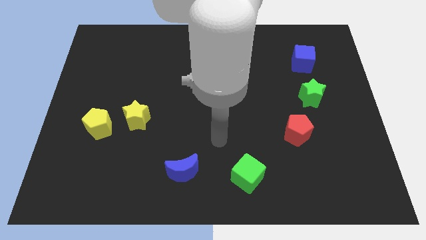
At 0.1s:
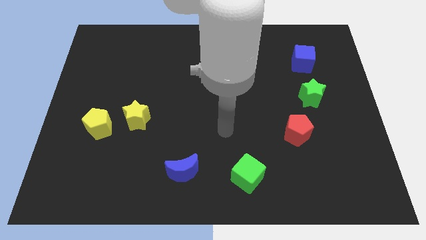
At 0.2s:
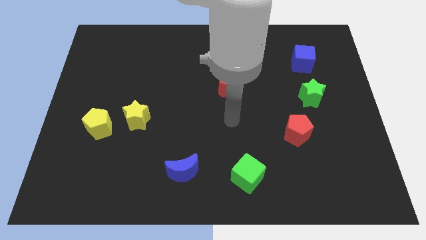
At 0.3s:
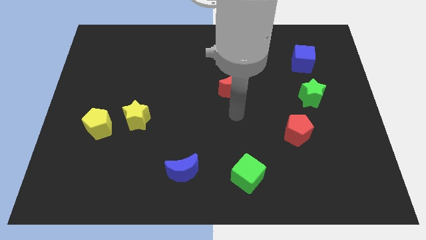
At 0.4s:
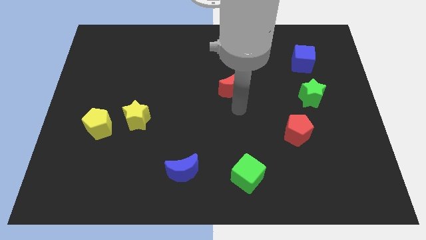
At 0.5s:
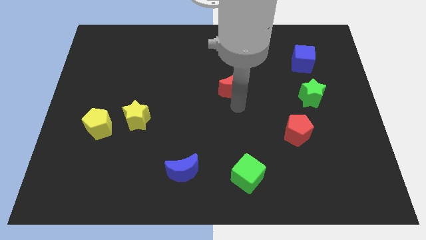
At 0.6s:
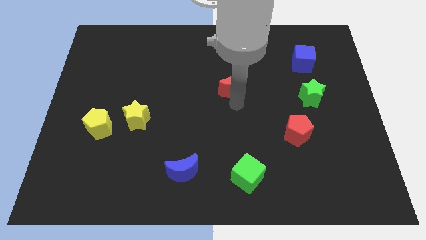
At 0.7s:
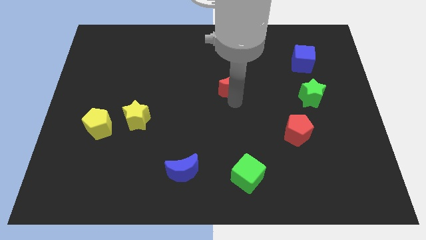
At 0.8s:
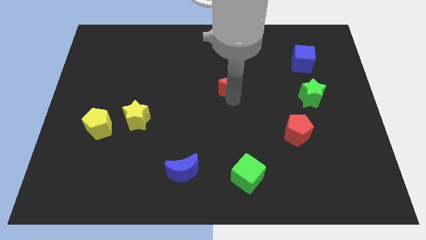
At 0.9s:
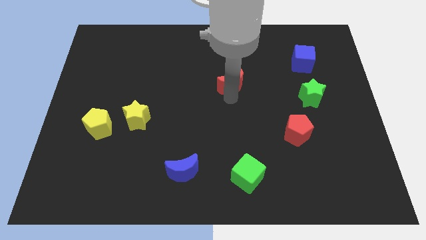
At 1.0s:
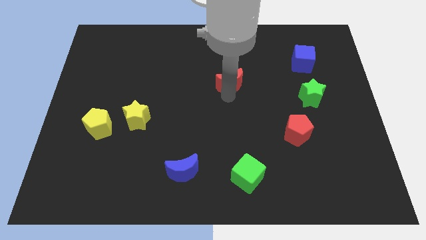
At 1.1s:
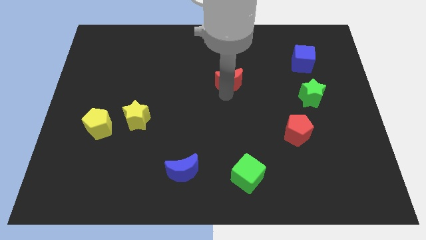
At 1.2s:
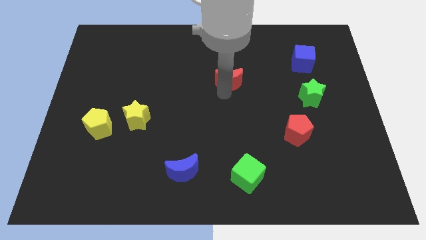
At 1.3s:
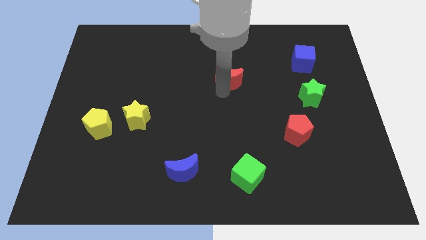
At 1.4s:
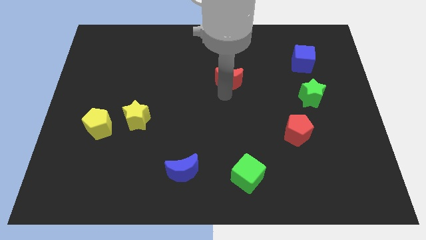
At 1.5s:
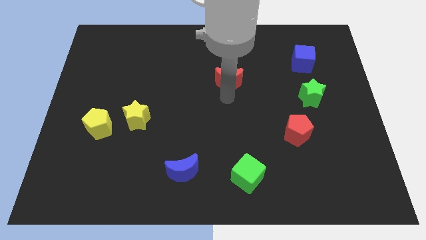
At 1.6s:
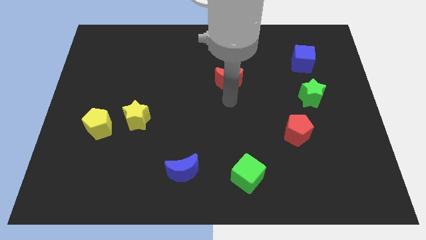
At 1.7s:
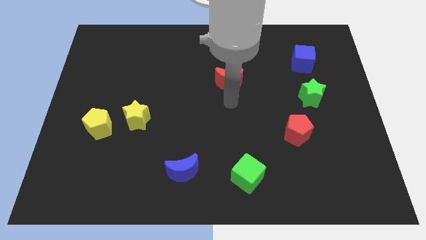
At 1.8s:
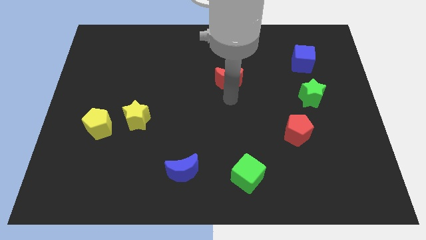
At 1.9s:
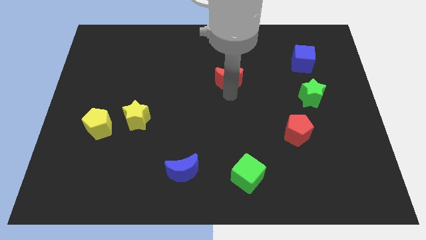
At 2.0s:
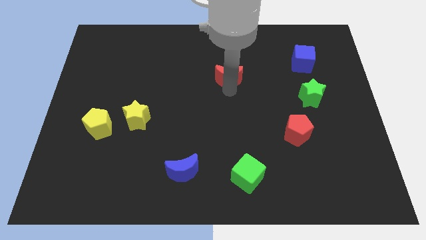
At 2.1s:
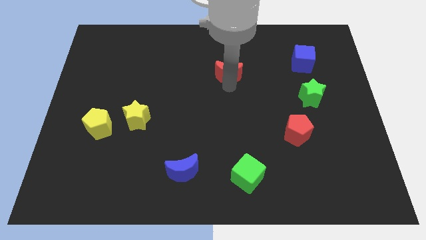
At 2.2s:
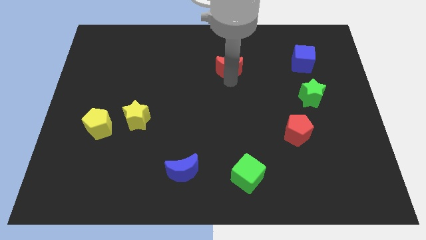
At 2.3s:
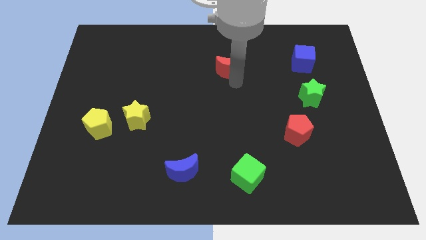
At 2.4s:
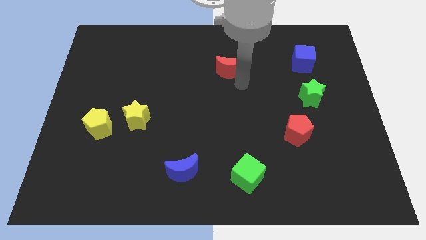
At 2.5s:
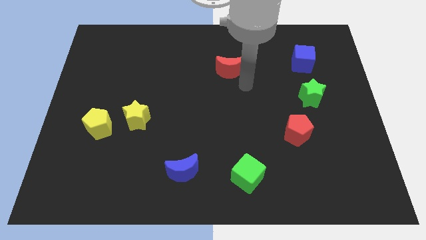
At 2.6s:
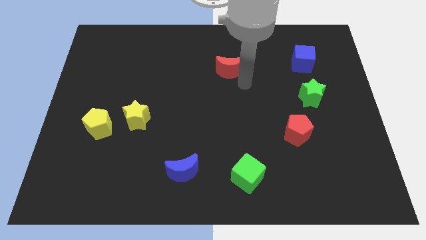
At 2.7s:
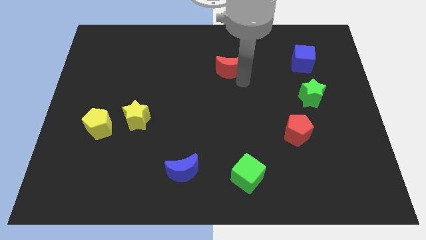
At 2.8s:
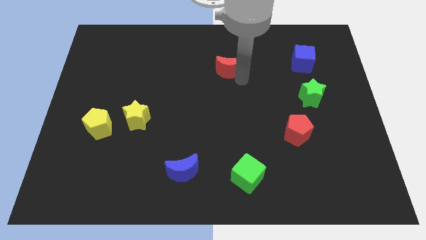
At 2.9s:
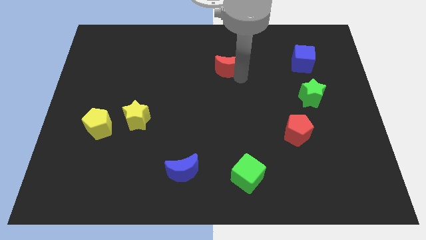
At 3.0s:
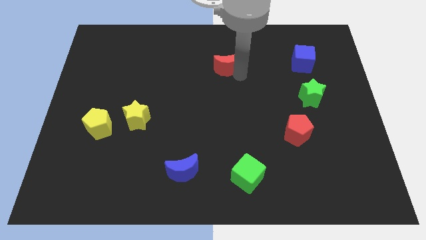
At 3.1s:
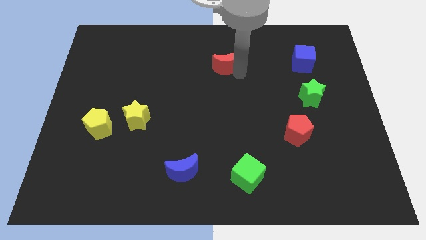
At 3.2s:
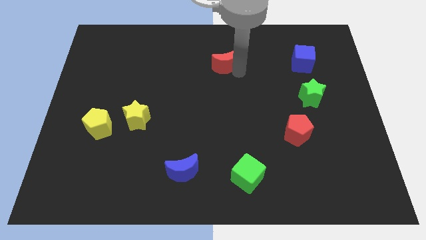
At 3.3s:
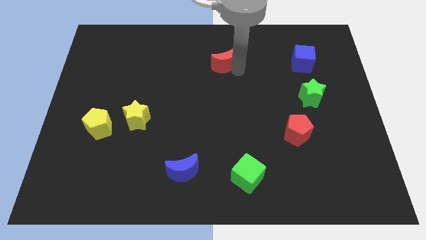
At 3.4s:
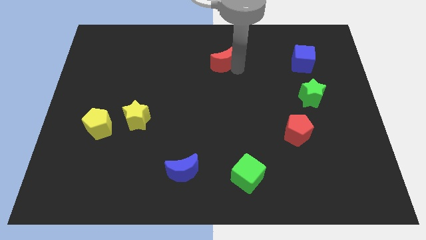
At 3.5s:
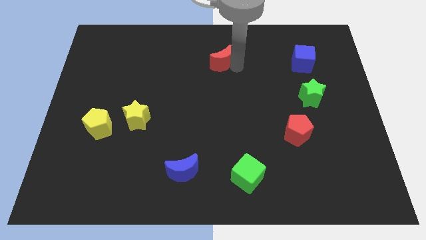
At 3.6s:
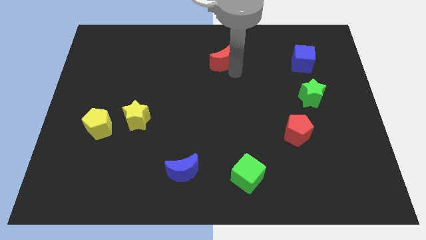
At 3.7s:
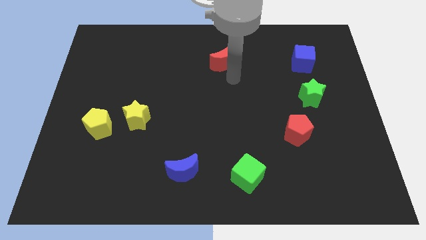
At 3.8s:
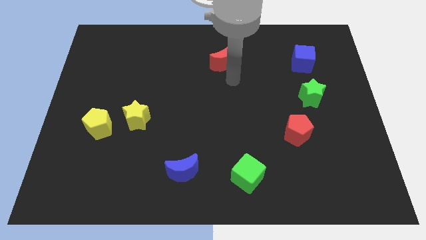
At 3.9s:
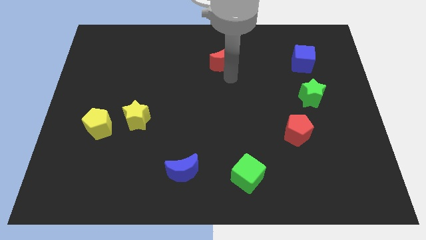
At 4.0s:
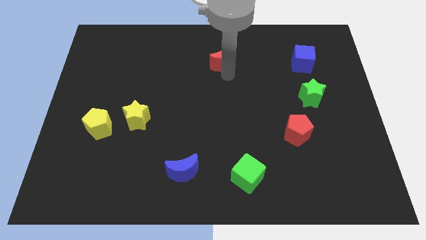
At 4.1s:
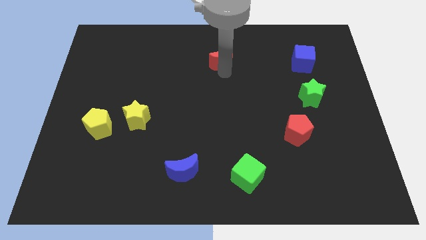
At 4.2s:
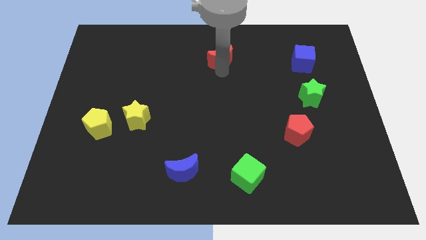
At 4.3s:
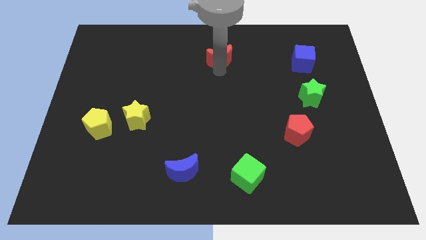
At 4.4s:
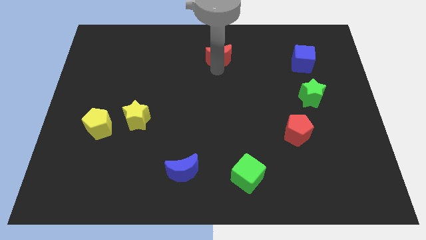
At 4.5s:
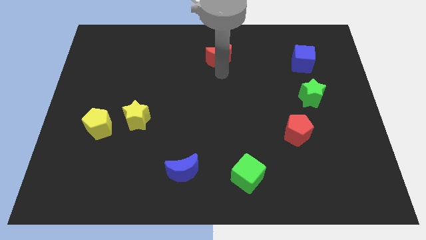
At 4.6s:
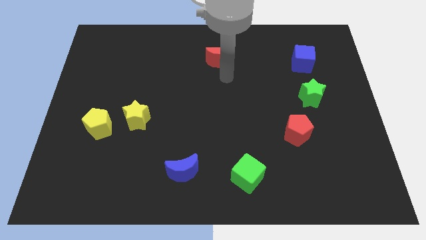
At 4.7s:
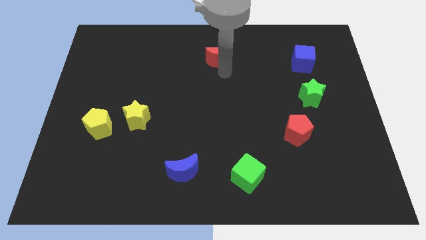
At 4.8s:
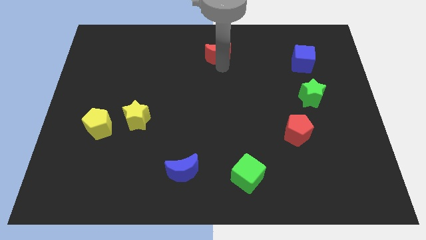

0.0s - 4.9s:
push the red moon to the towards your base

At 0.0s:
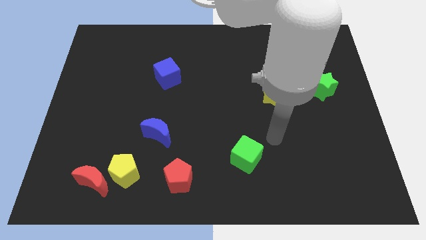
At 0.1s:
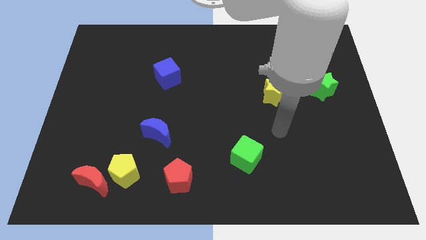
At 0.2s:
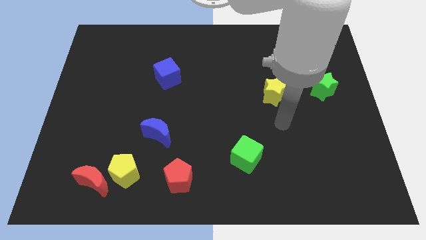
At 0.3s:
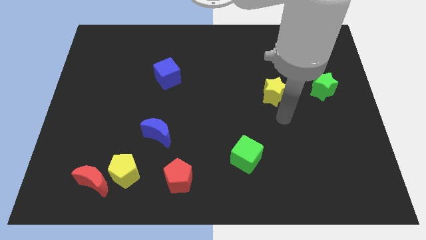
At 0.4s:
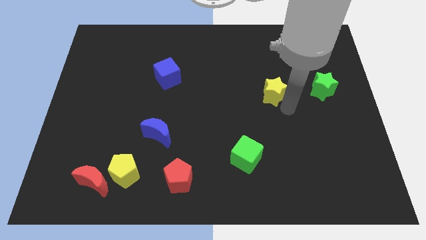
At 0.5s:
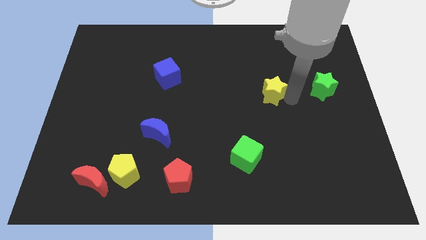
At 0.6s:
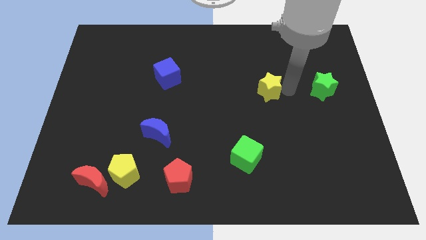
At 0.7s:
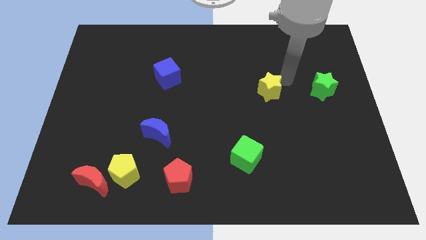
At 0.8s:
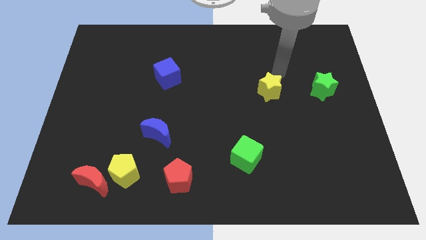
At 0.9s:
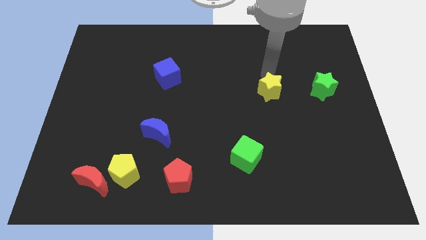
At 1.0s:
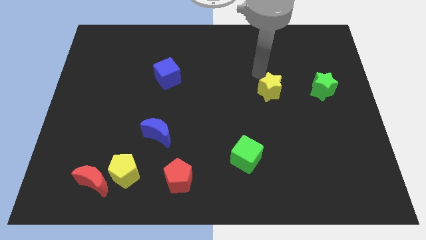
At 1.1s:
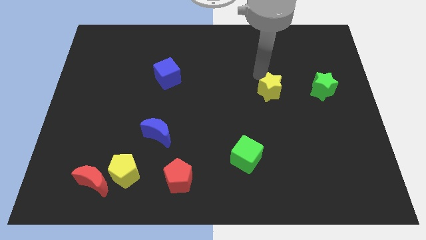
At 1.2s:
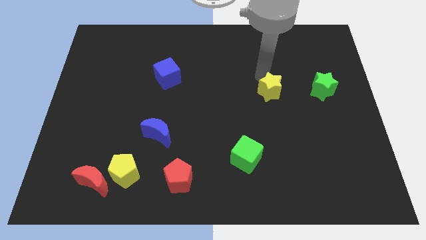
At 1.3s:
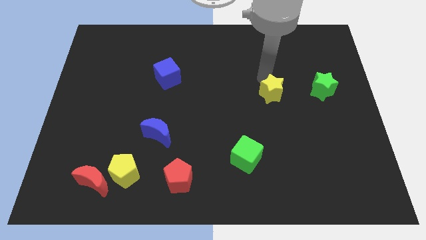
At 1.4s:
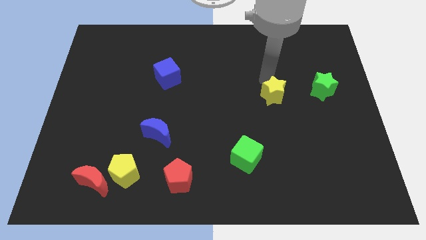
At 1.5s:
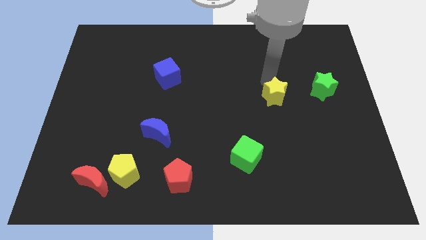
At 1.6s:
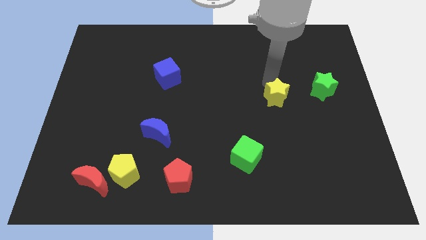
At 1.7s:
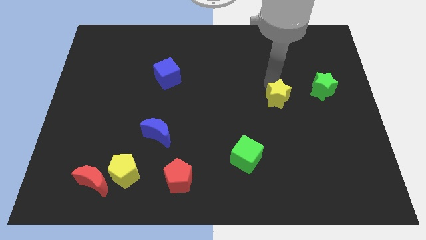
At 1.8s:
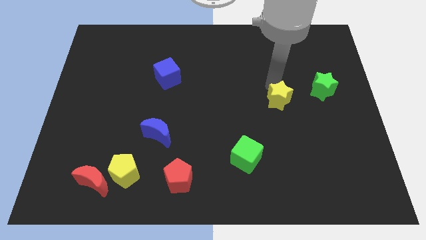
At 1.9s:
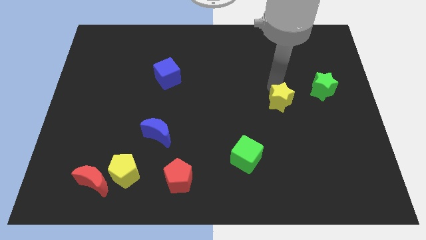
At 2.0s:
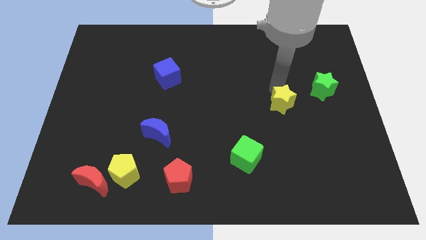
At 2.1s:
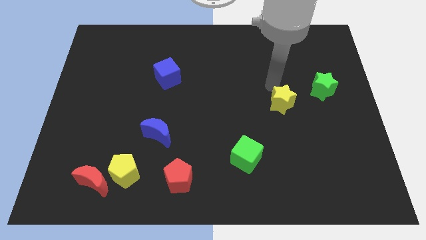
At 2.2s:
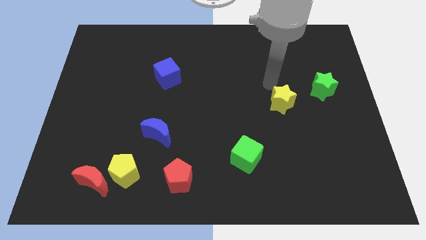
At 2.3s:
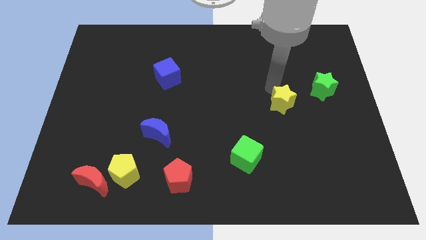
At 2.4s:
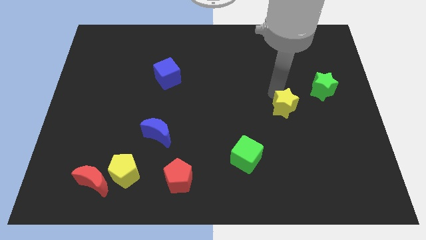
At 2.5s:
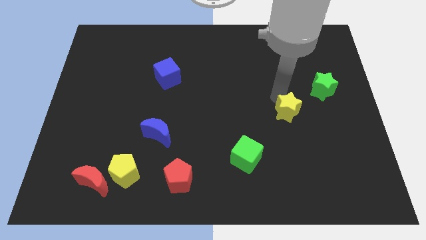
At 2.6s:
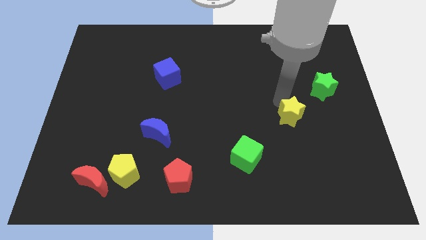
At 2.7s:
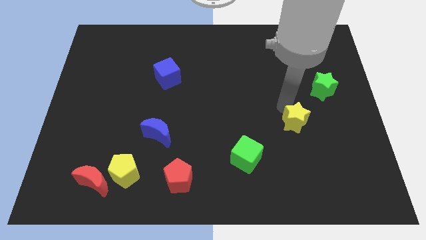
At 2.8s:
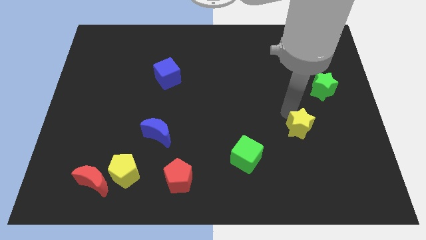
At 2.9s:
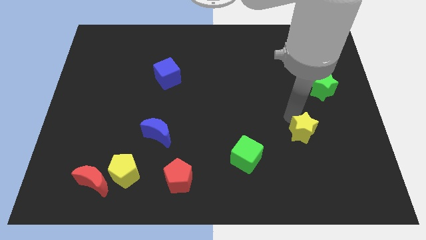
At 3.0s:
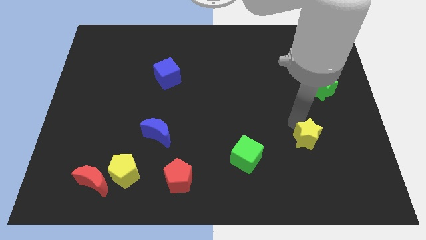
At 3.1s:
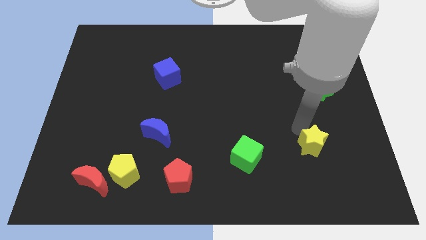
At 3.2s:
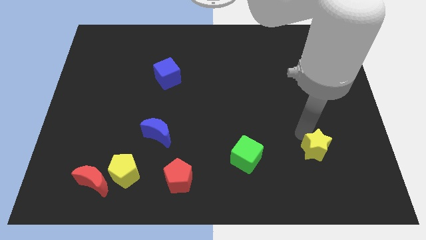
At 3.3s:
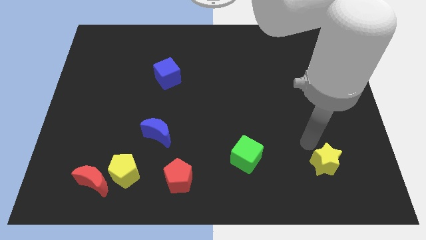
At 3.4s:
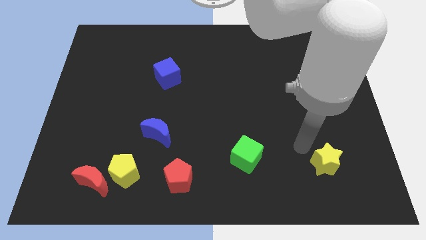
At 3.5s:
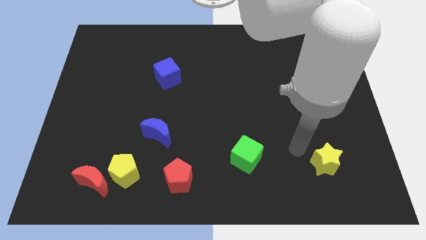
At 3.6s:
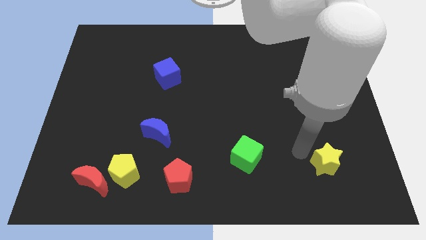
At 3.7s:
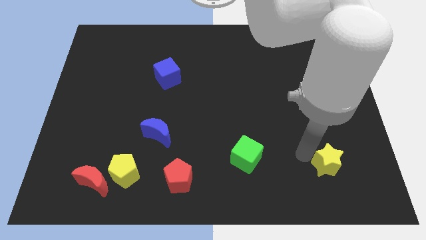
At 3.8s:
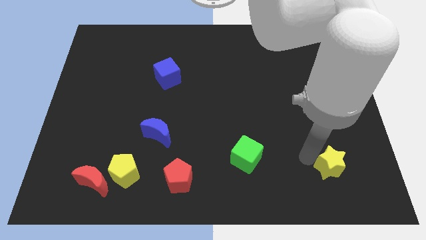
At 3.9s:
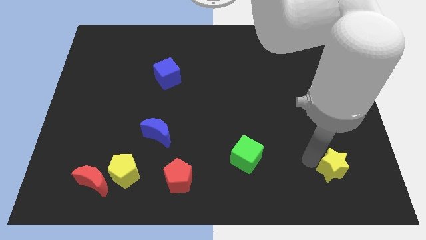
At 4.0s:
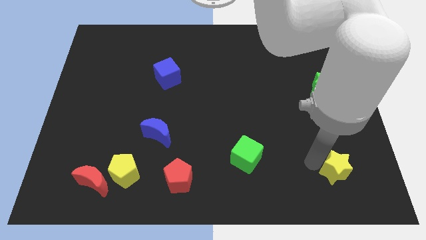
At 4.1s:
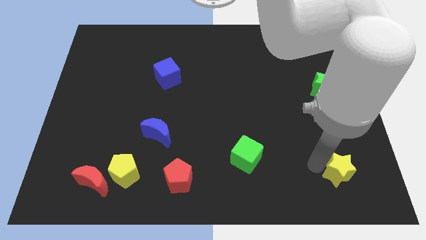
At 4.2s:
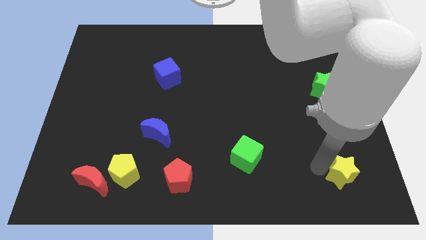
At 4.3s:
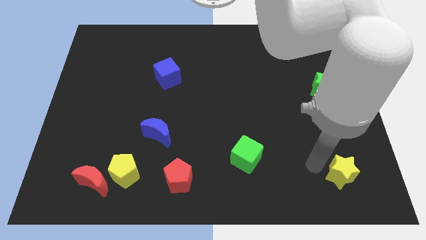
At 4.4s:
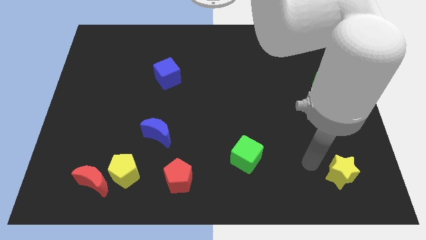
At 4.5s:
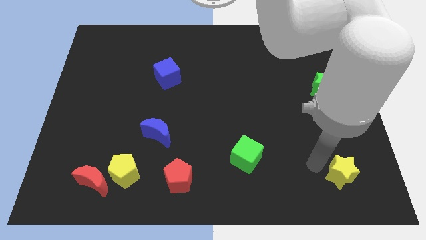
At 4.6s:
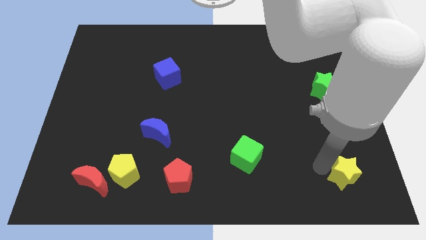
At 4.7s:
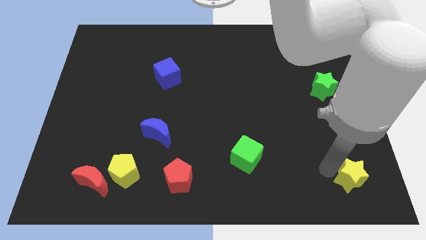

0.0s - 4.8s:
slide the yellow star to the bottom right of the board
